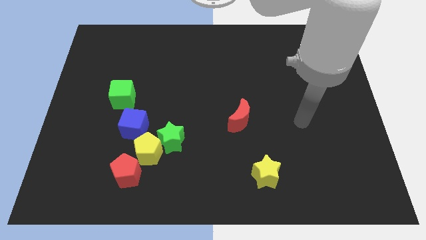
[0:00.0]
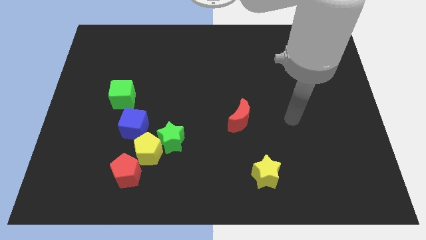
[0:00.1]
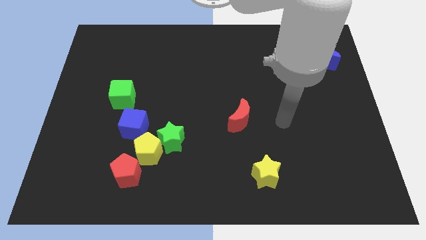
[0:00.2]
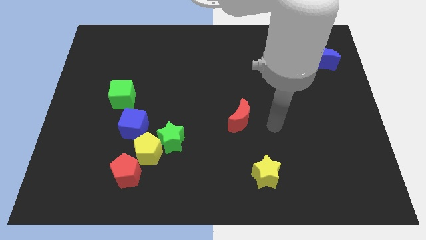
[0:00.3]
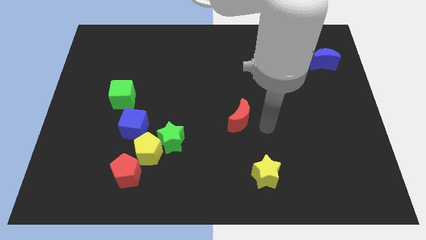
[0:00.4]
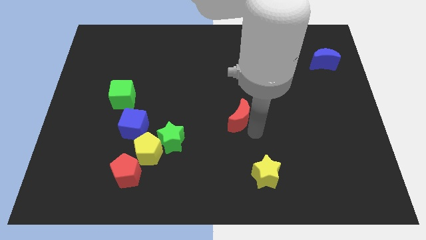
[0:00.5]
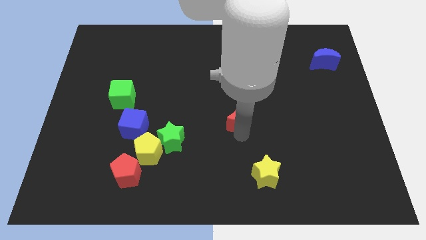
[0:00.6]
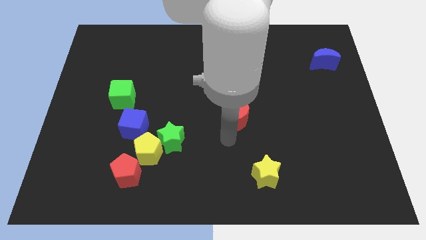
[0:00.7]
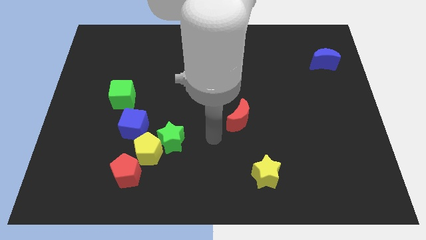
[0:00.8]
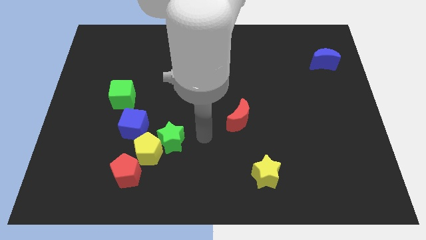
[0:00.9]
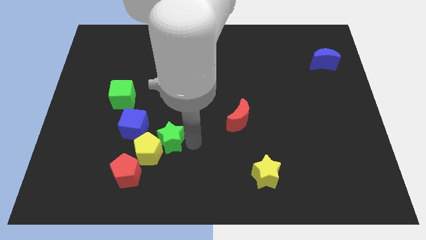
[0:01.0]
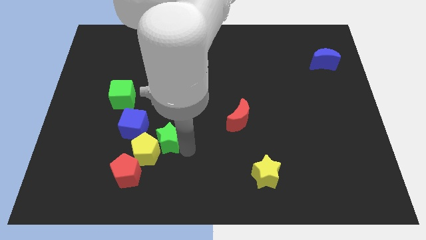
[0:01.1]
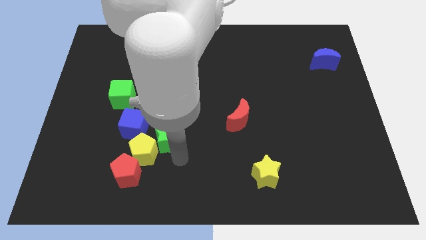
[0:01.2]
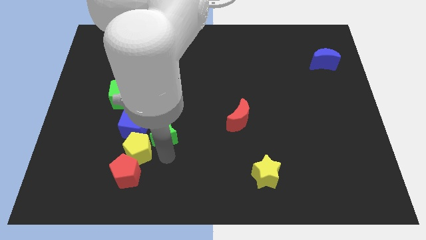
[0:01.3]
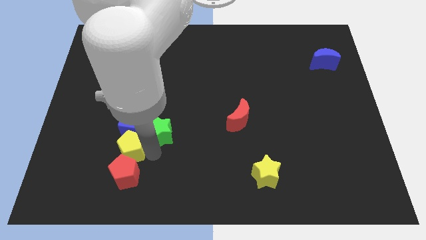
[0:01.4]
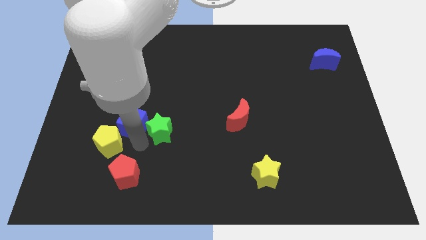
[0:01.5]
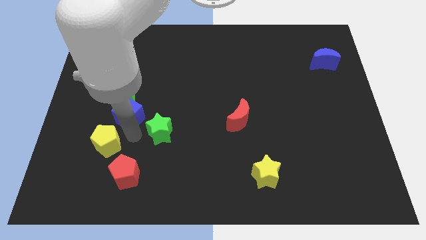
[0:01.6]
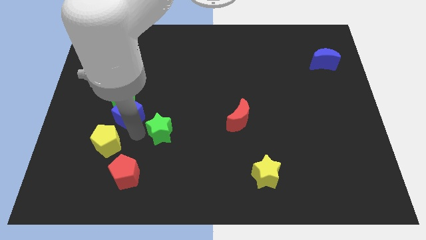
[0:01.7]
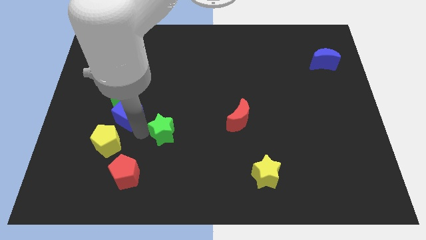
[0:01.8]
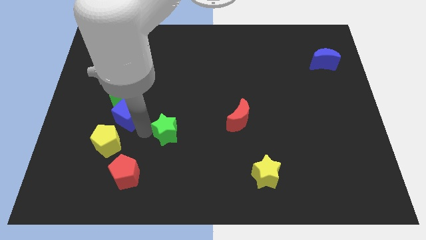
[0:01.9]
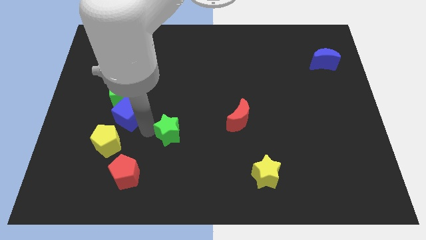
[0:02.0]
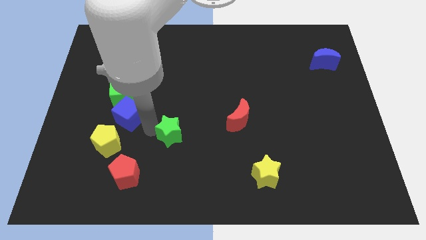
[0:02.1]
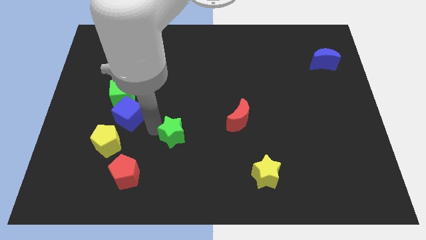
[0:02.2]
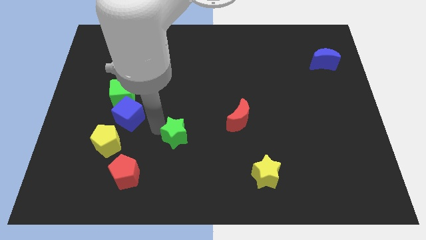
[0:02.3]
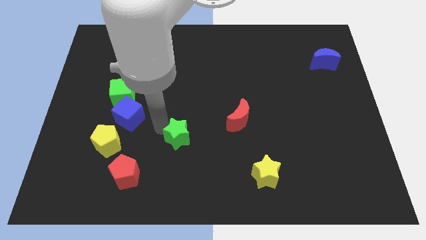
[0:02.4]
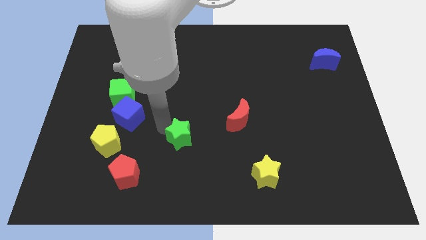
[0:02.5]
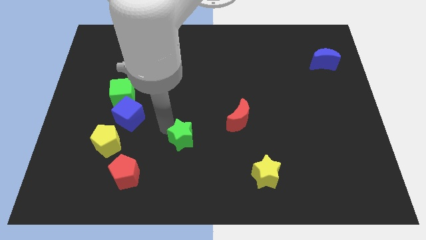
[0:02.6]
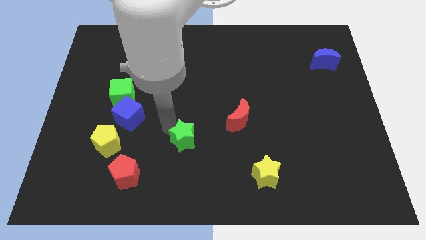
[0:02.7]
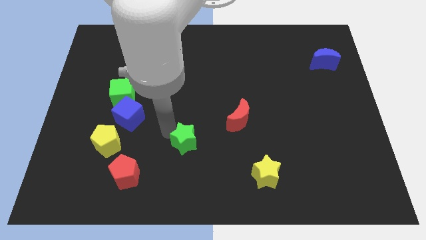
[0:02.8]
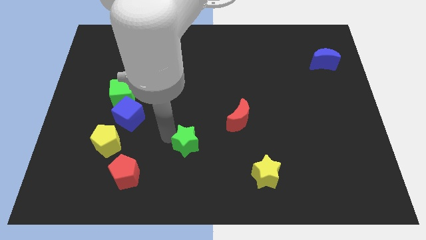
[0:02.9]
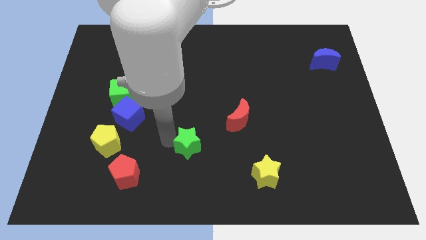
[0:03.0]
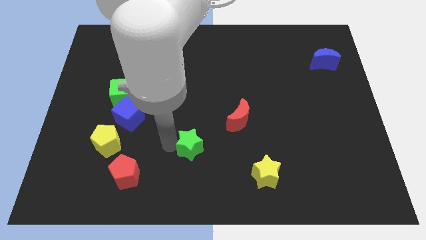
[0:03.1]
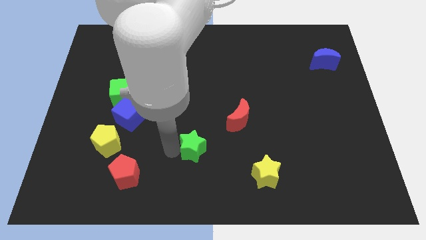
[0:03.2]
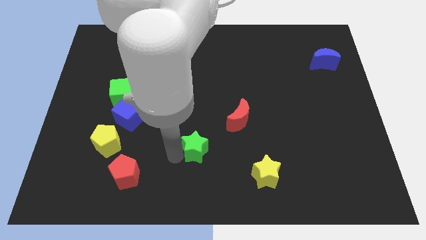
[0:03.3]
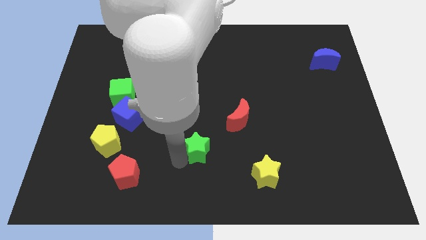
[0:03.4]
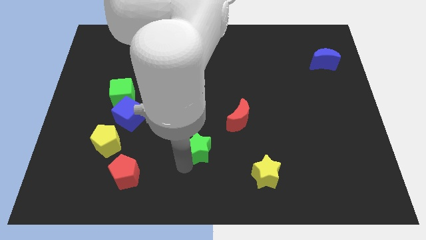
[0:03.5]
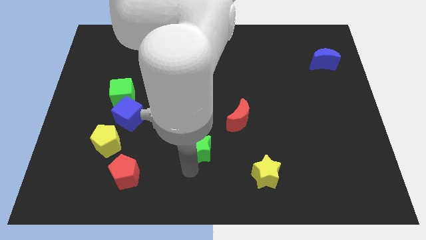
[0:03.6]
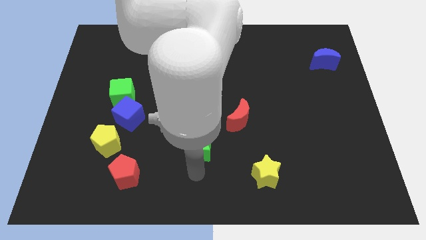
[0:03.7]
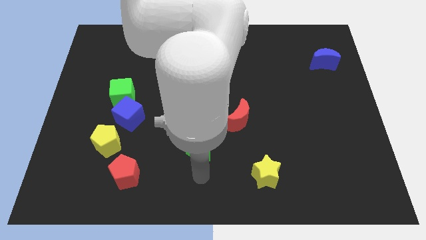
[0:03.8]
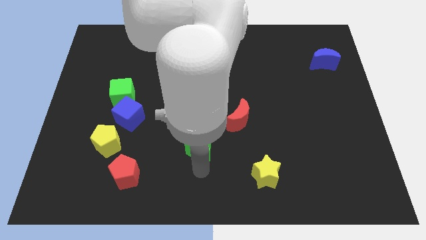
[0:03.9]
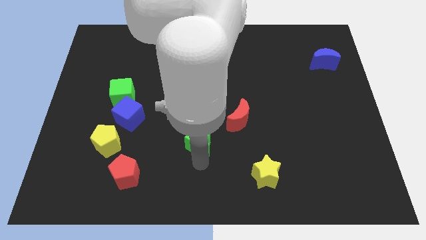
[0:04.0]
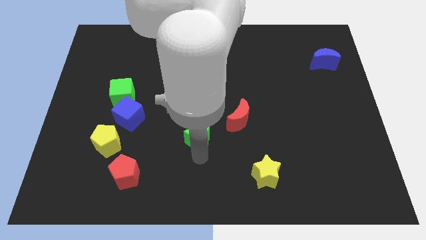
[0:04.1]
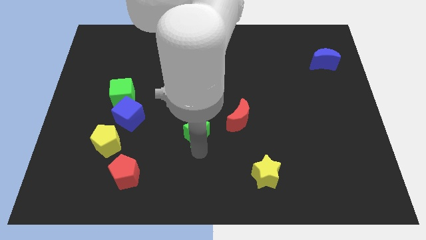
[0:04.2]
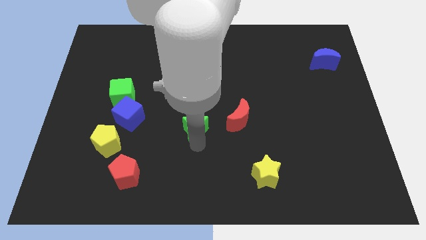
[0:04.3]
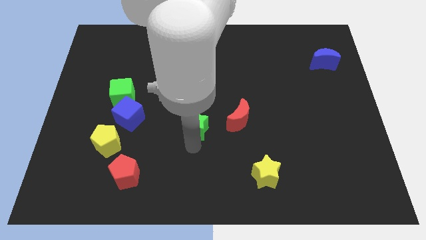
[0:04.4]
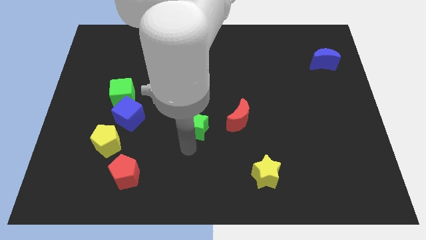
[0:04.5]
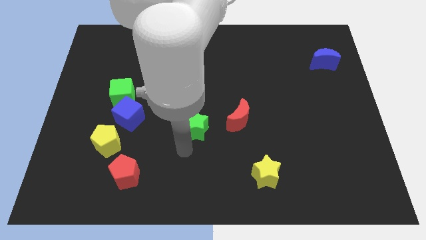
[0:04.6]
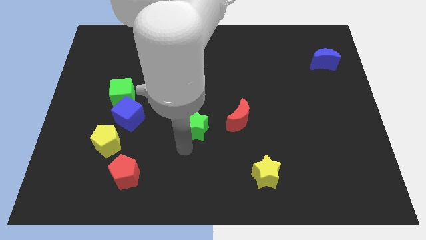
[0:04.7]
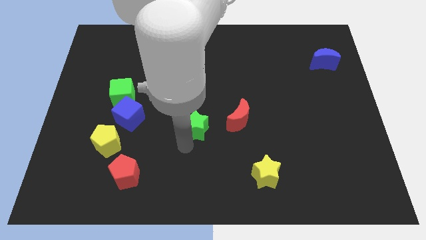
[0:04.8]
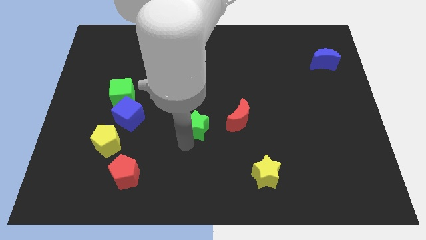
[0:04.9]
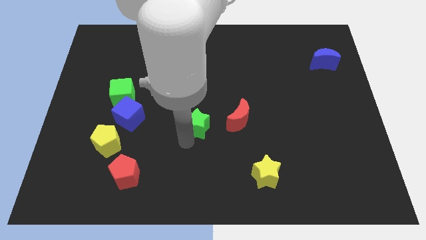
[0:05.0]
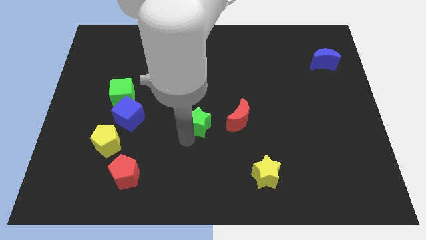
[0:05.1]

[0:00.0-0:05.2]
move the green star a little bit up and right

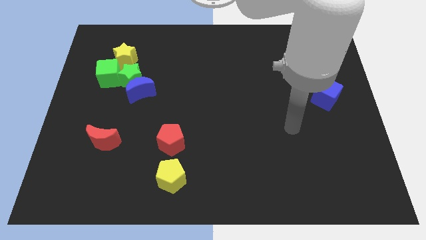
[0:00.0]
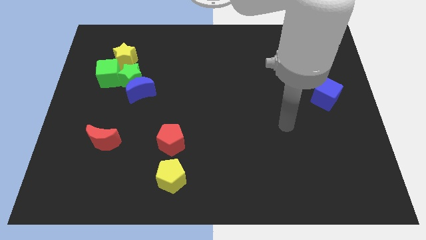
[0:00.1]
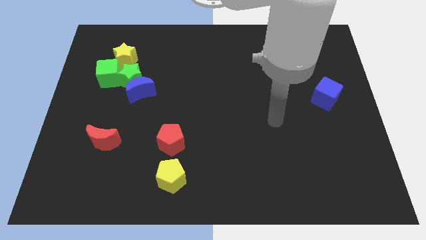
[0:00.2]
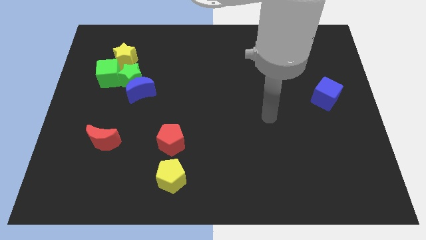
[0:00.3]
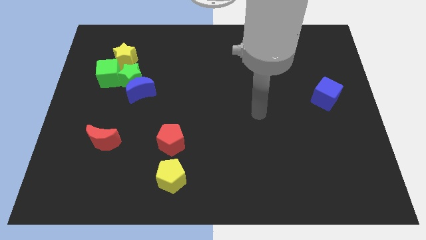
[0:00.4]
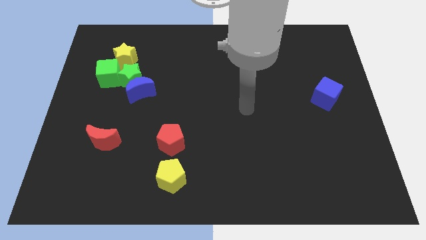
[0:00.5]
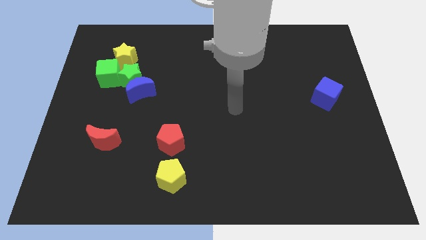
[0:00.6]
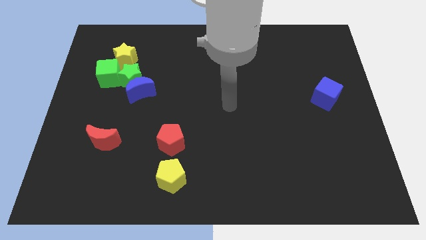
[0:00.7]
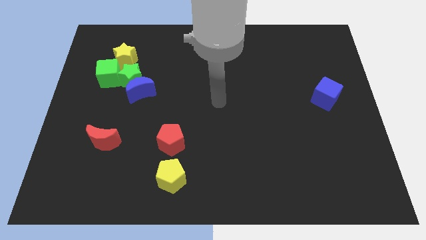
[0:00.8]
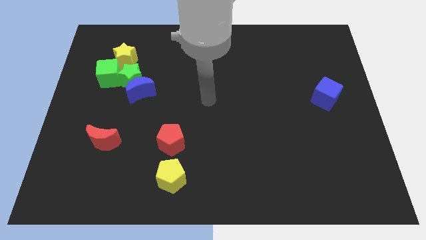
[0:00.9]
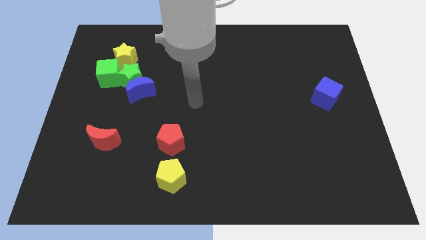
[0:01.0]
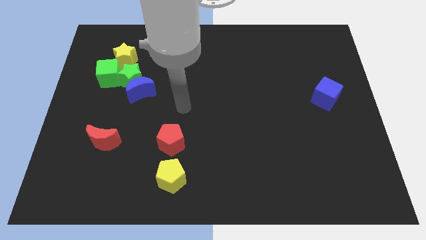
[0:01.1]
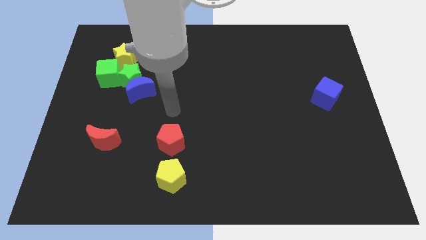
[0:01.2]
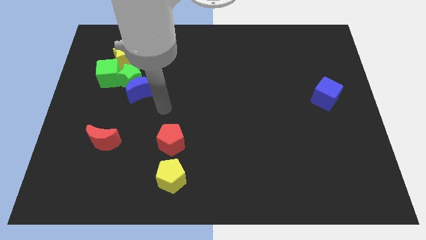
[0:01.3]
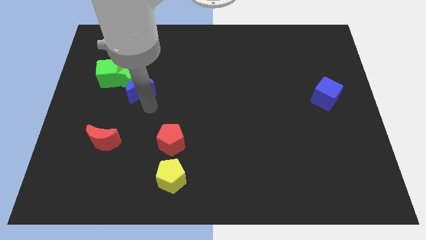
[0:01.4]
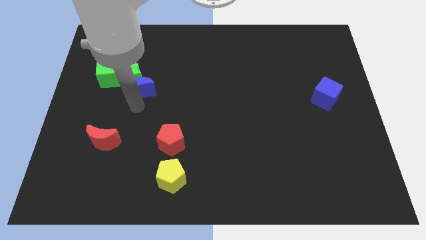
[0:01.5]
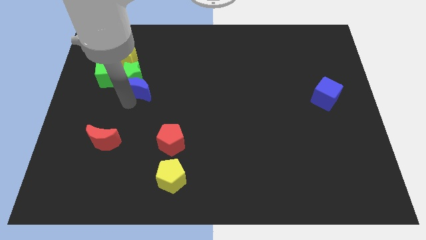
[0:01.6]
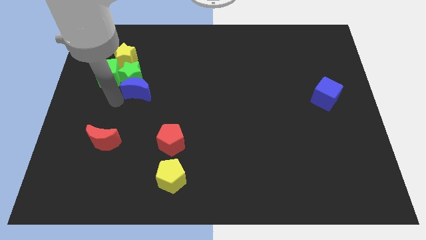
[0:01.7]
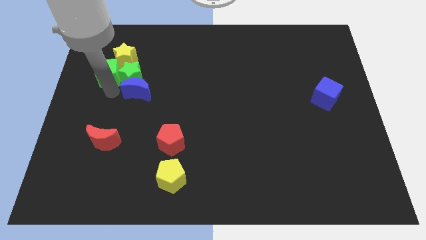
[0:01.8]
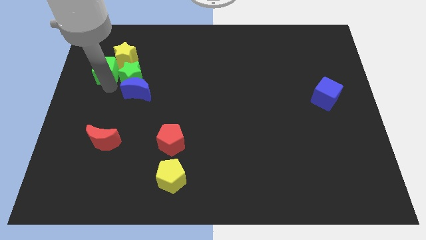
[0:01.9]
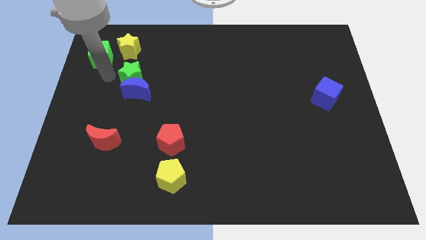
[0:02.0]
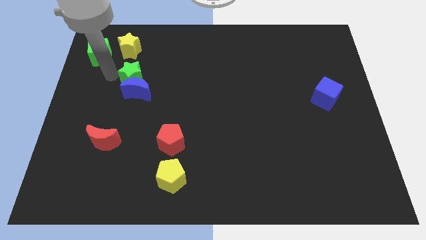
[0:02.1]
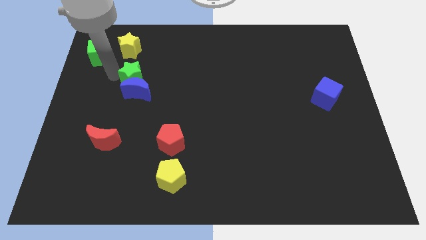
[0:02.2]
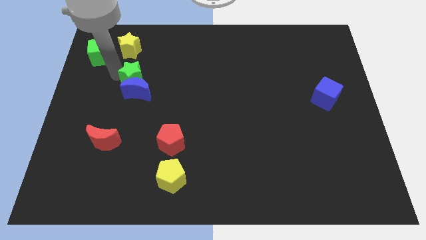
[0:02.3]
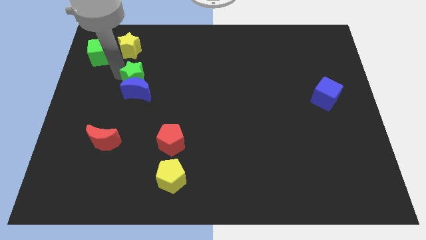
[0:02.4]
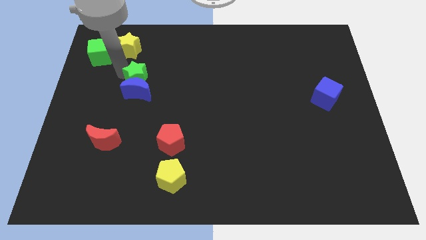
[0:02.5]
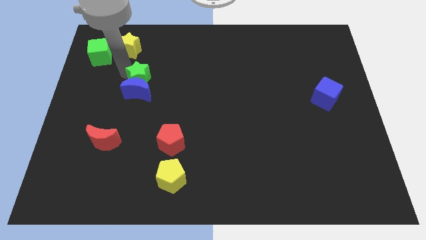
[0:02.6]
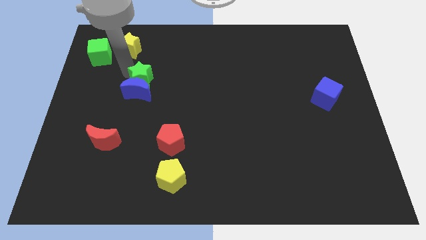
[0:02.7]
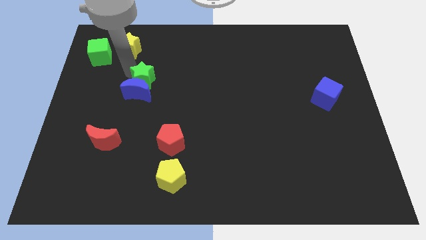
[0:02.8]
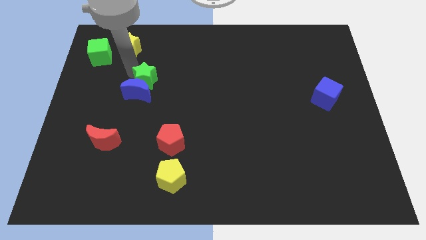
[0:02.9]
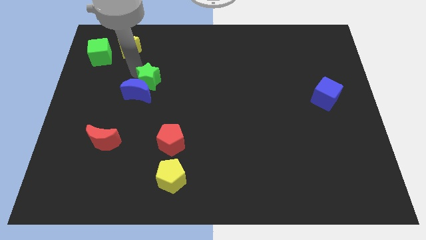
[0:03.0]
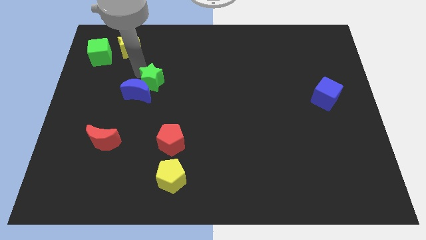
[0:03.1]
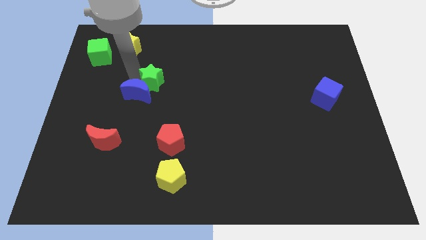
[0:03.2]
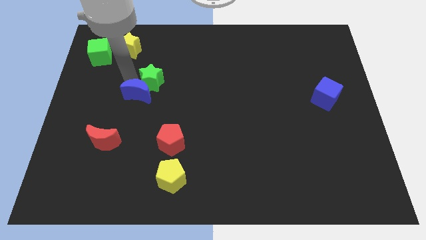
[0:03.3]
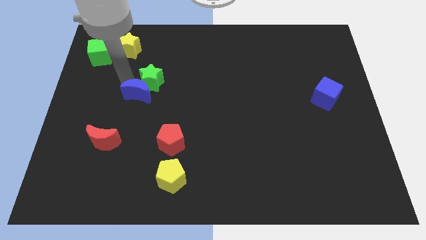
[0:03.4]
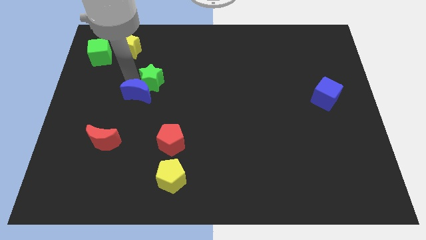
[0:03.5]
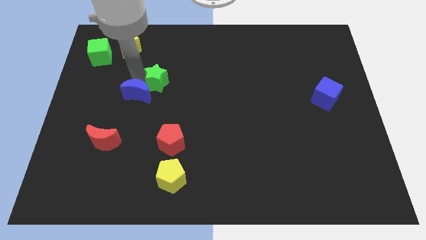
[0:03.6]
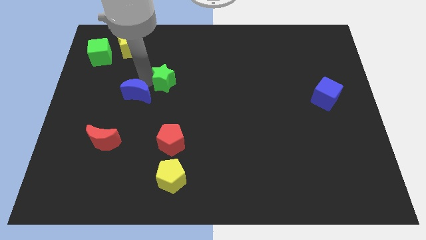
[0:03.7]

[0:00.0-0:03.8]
slightly push the green star right
